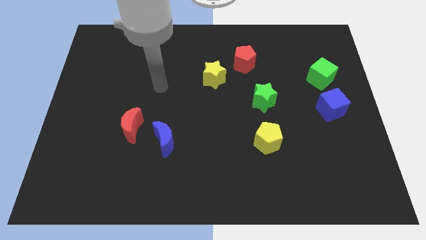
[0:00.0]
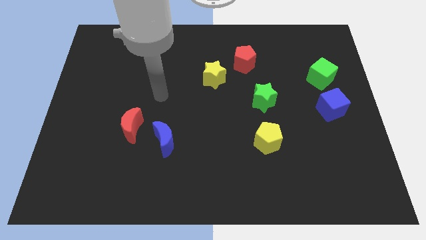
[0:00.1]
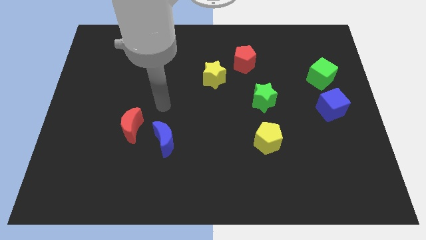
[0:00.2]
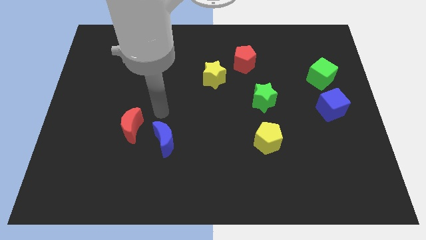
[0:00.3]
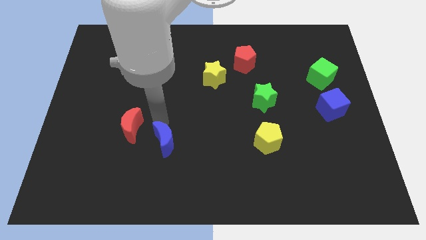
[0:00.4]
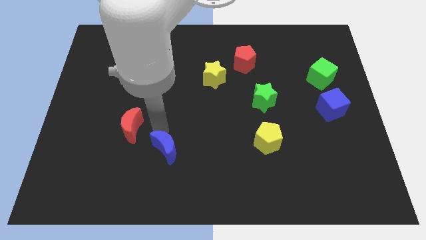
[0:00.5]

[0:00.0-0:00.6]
pull the red moon apart from the blue moon

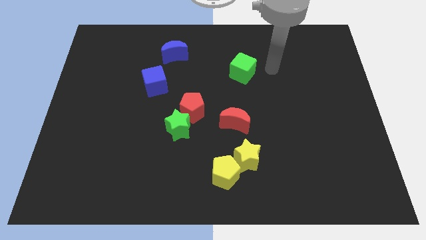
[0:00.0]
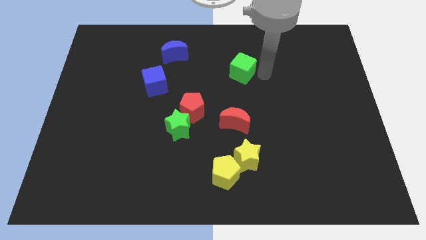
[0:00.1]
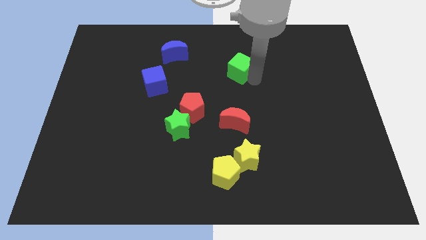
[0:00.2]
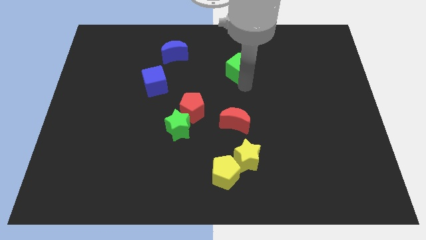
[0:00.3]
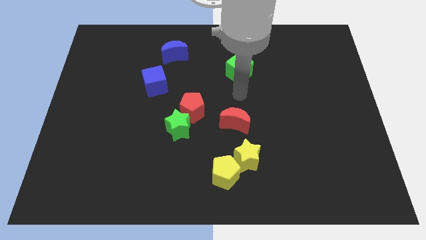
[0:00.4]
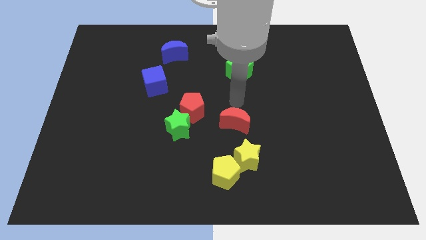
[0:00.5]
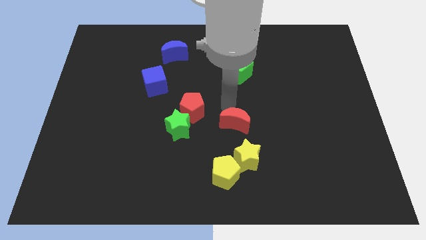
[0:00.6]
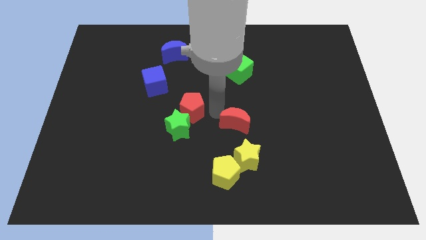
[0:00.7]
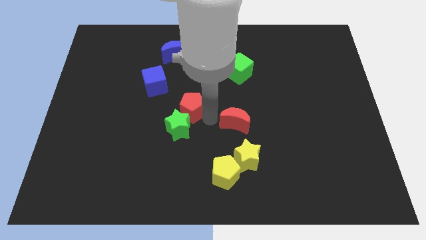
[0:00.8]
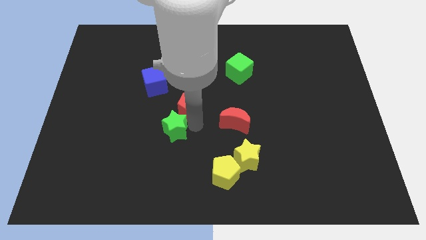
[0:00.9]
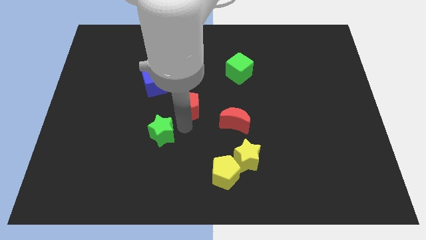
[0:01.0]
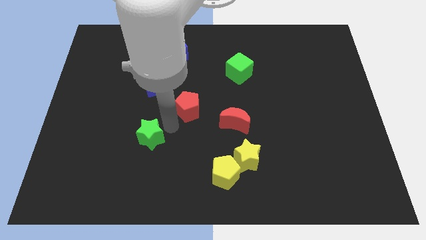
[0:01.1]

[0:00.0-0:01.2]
separate the red pentagon from the green star

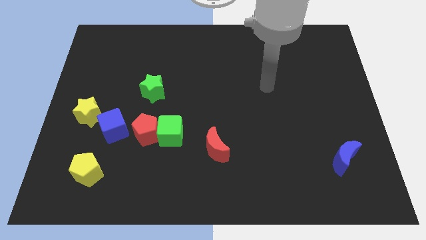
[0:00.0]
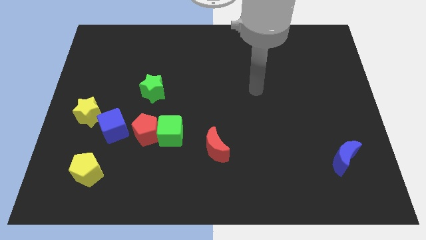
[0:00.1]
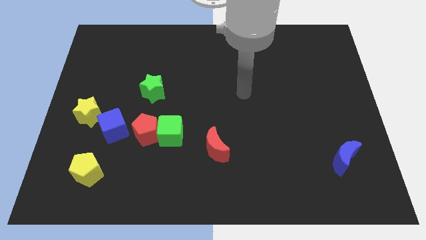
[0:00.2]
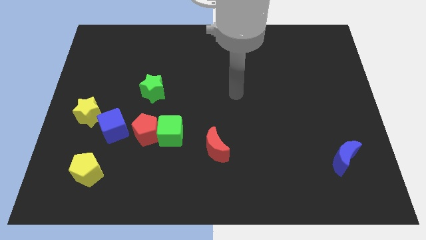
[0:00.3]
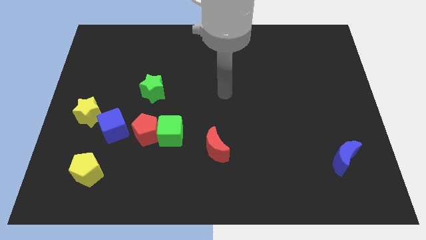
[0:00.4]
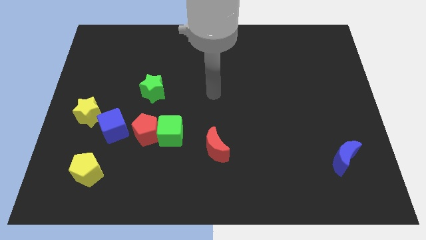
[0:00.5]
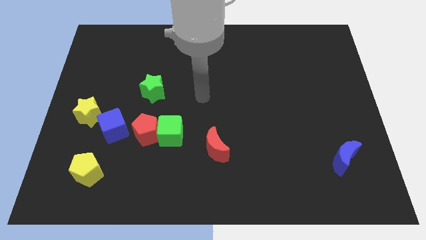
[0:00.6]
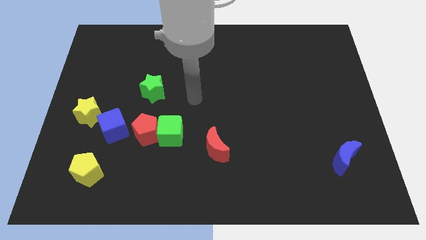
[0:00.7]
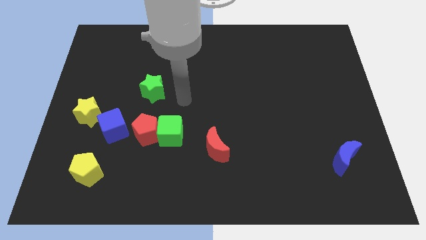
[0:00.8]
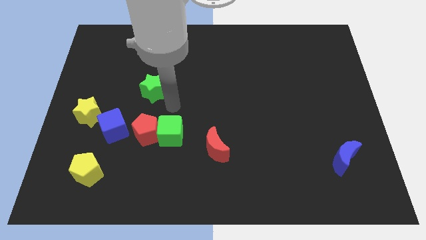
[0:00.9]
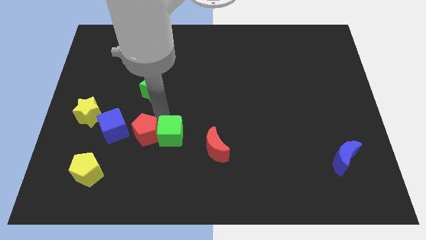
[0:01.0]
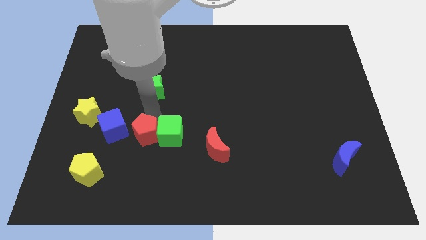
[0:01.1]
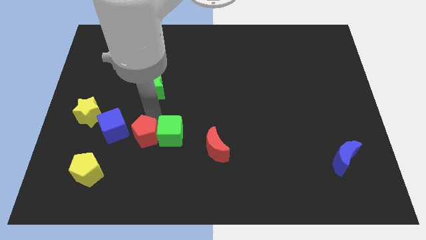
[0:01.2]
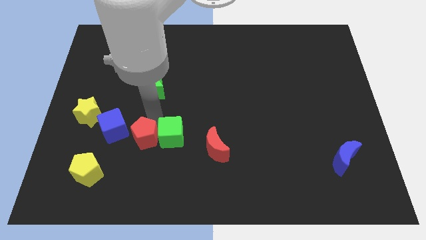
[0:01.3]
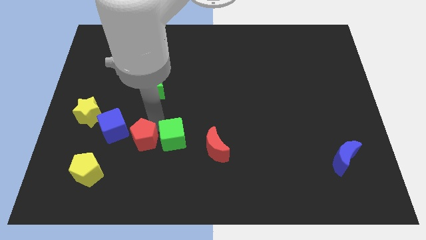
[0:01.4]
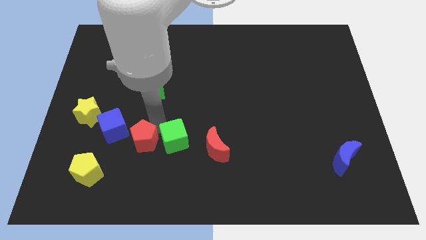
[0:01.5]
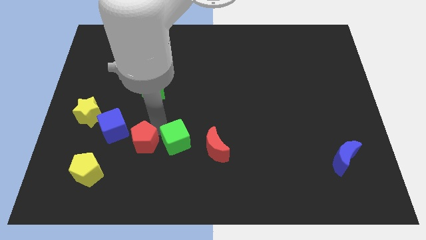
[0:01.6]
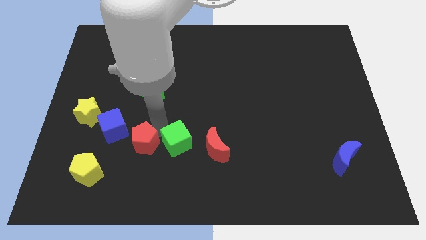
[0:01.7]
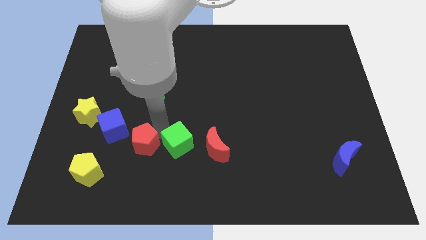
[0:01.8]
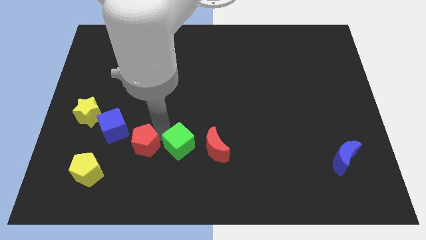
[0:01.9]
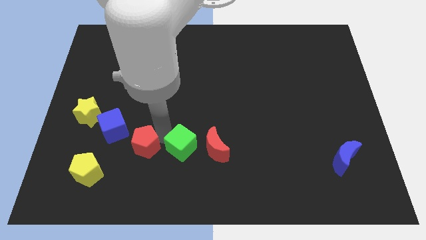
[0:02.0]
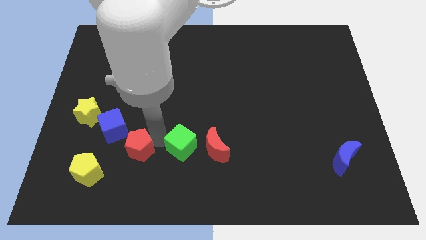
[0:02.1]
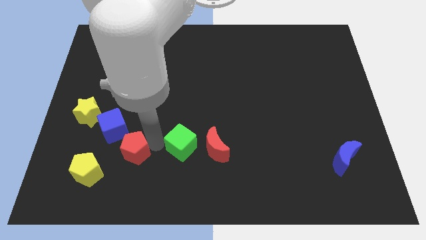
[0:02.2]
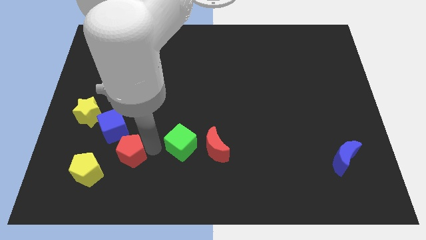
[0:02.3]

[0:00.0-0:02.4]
separate the green cube from the red pentagon

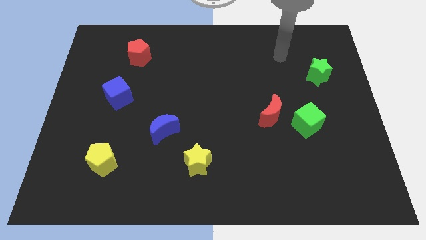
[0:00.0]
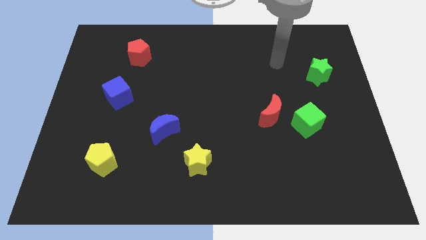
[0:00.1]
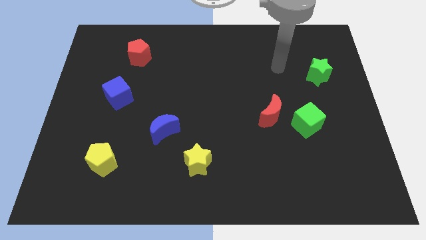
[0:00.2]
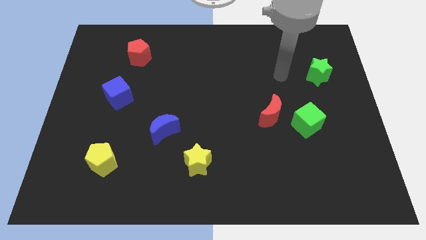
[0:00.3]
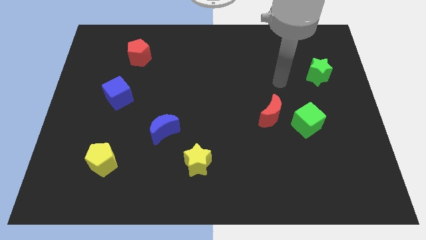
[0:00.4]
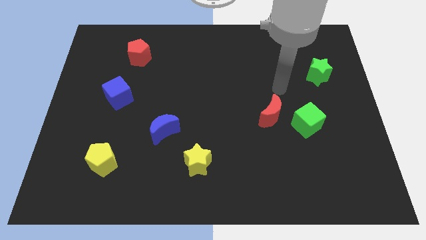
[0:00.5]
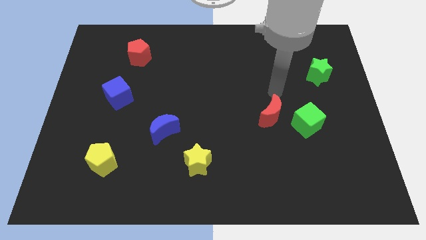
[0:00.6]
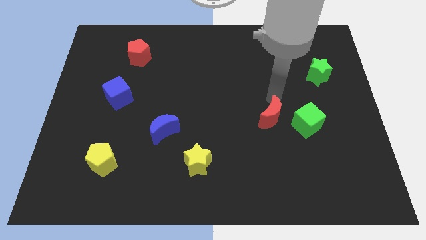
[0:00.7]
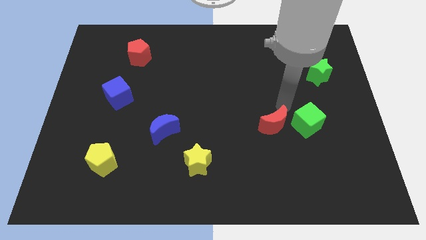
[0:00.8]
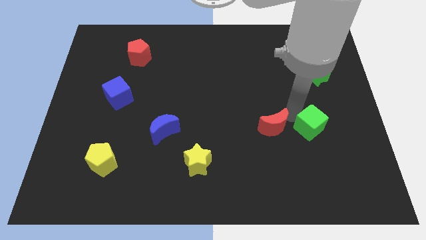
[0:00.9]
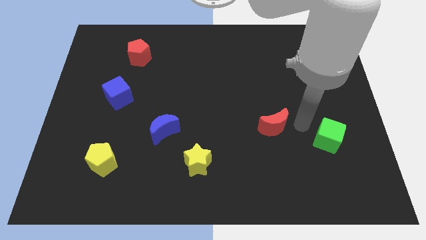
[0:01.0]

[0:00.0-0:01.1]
move the red moon away from the green cube

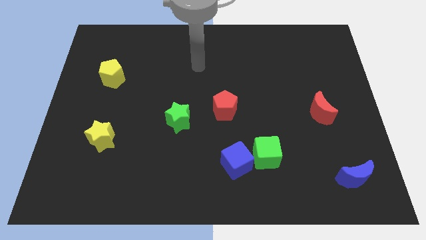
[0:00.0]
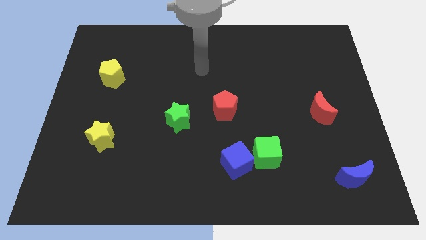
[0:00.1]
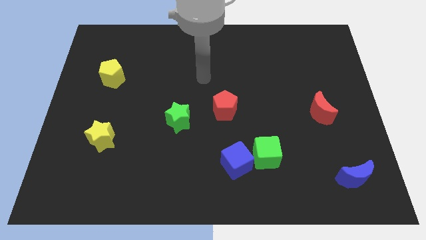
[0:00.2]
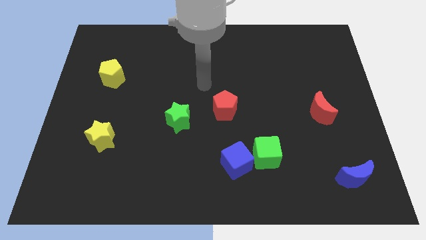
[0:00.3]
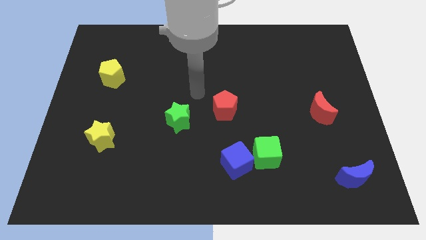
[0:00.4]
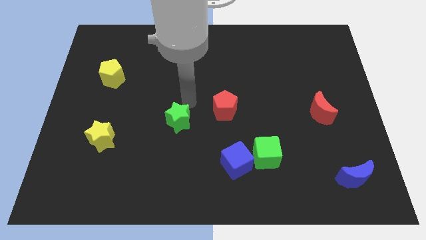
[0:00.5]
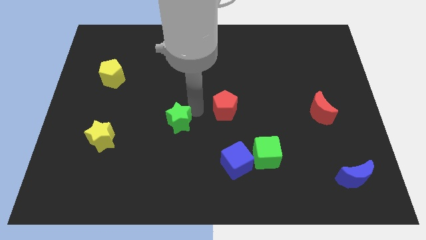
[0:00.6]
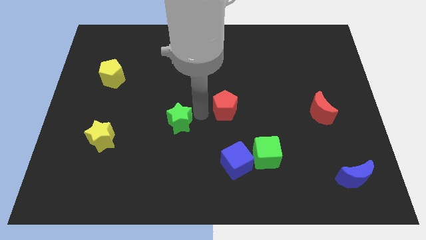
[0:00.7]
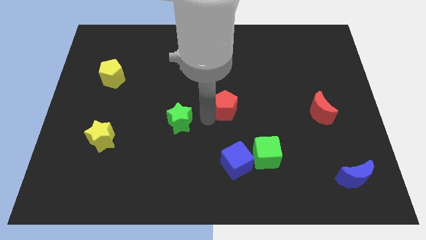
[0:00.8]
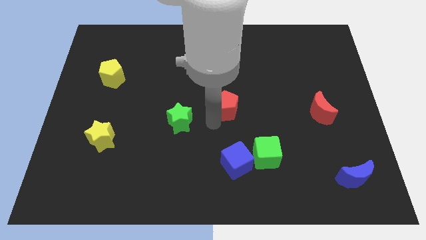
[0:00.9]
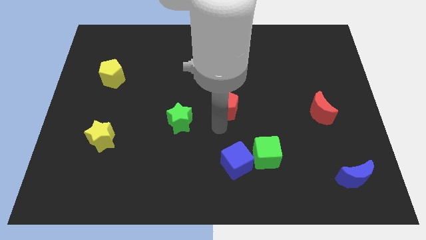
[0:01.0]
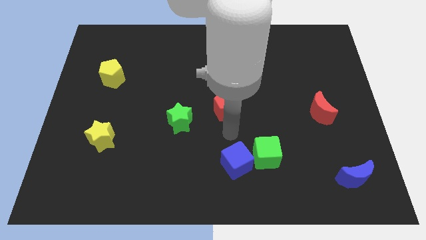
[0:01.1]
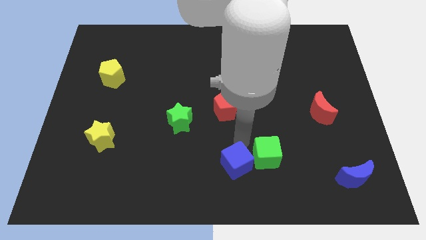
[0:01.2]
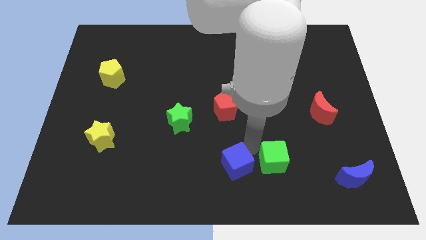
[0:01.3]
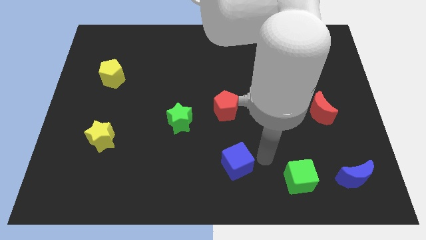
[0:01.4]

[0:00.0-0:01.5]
pull the blue cube apart from the green cube

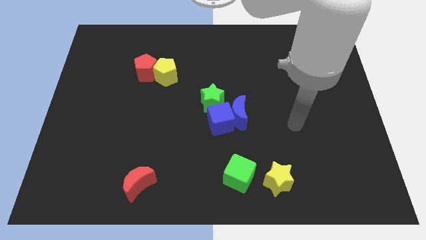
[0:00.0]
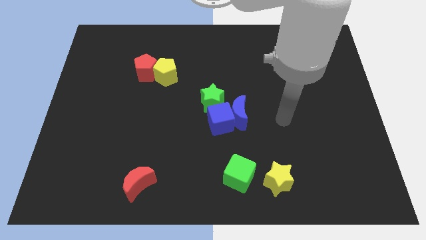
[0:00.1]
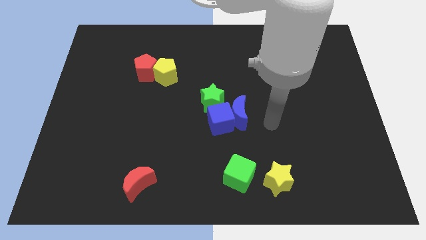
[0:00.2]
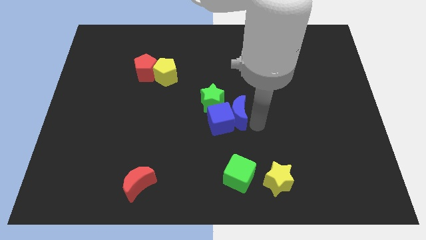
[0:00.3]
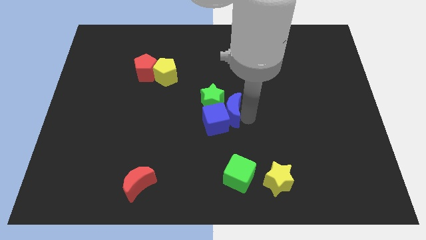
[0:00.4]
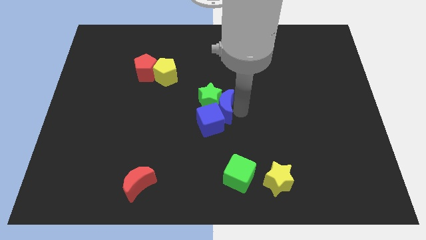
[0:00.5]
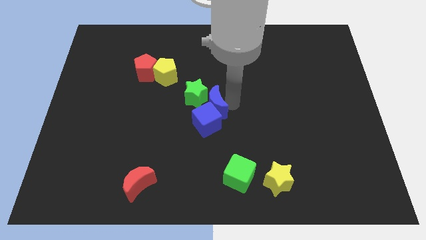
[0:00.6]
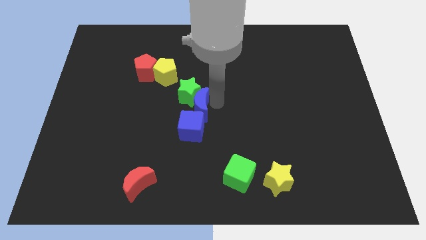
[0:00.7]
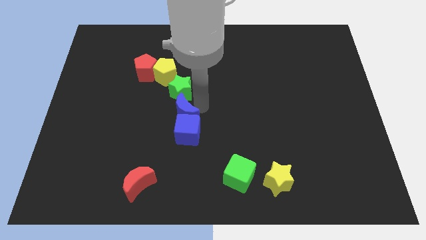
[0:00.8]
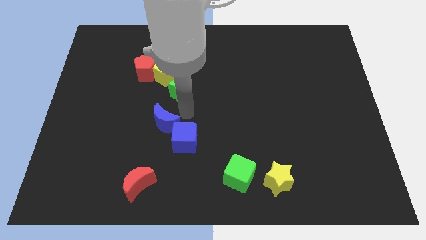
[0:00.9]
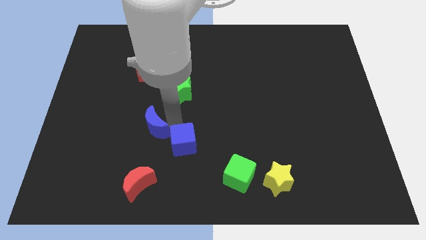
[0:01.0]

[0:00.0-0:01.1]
move the blue cube away from the blue moon and green star

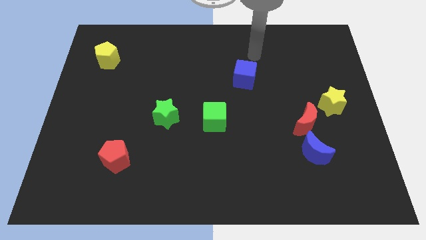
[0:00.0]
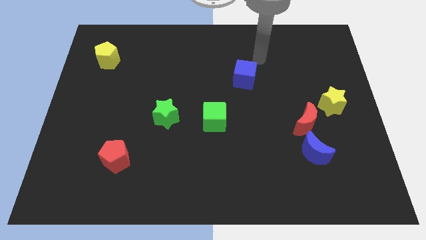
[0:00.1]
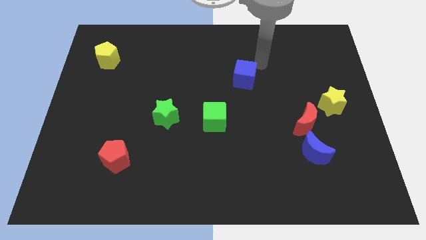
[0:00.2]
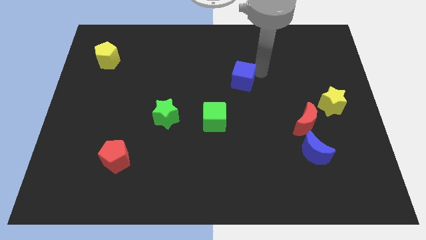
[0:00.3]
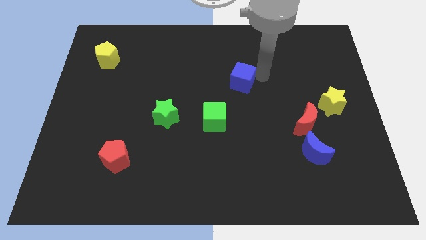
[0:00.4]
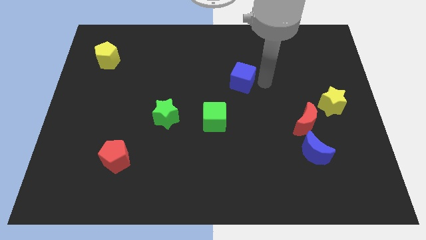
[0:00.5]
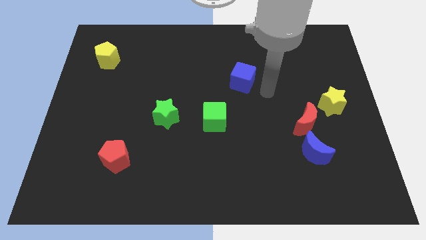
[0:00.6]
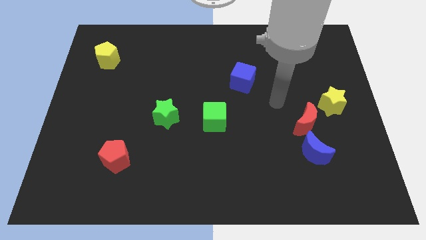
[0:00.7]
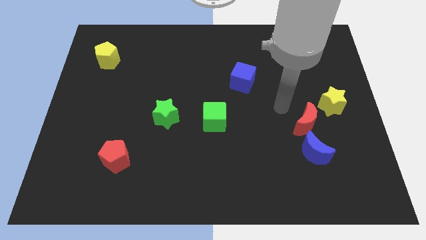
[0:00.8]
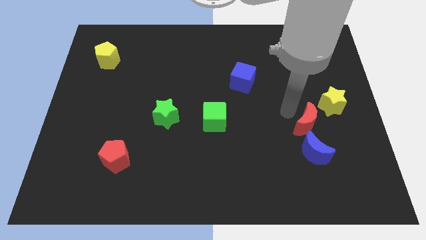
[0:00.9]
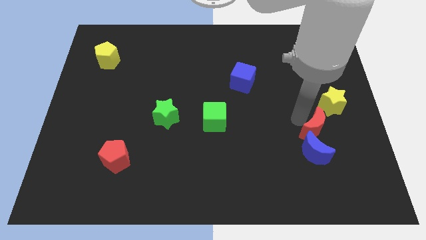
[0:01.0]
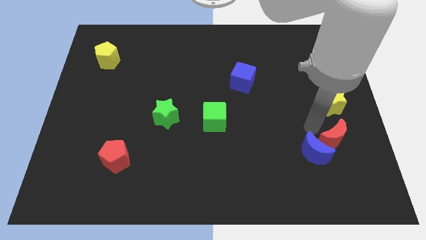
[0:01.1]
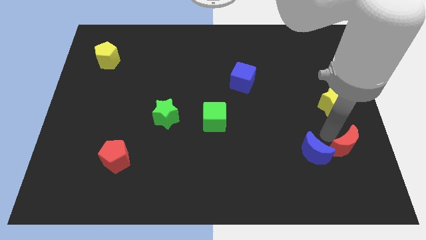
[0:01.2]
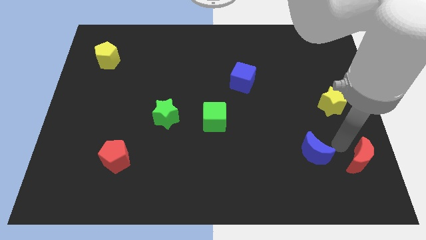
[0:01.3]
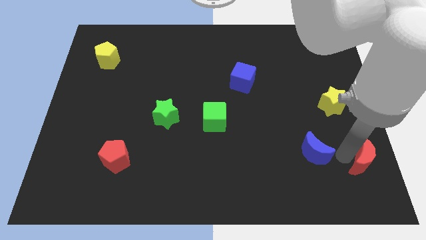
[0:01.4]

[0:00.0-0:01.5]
move the blue moon away from the red moon
